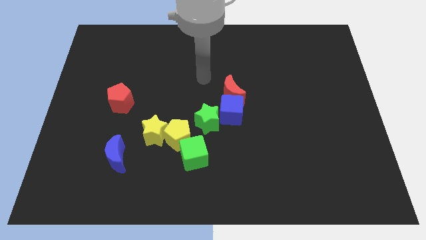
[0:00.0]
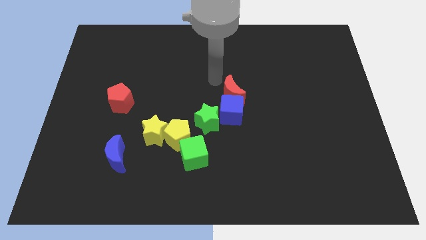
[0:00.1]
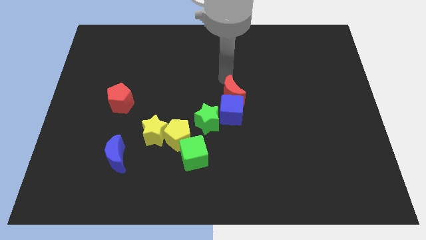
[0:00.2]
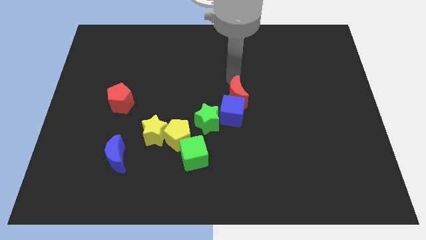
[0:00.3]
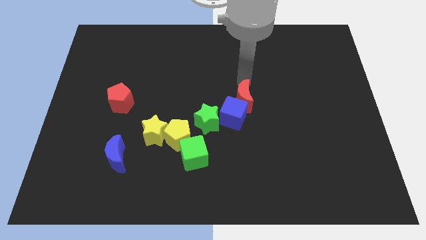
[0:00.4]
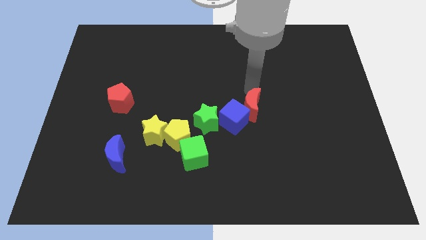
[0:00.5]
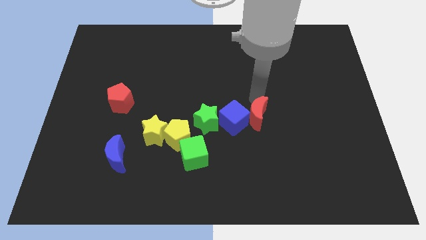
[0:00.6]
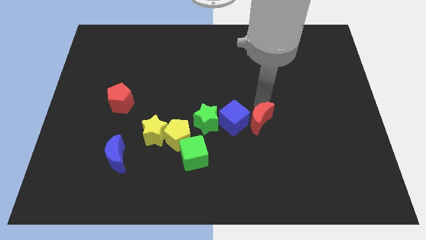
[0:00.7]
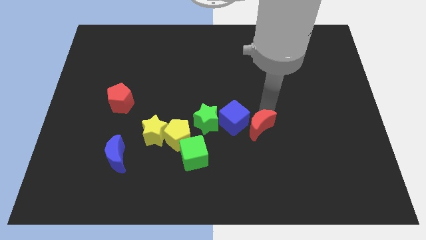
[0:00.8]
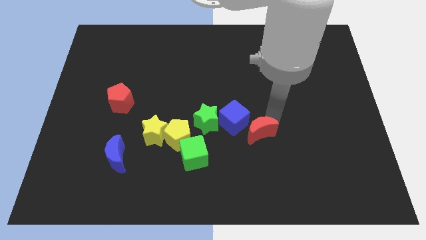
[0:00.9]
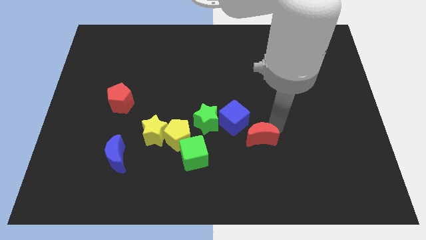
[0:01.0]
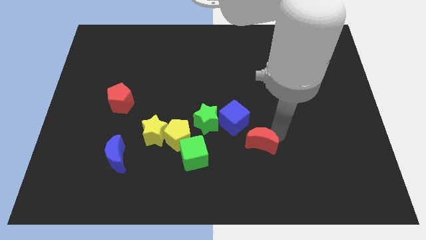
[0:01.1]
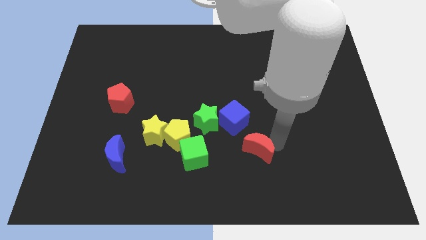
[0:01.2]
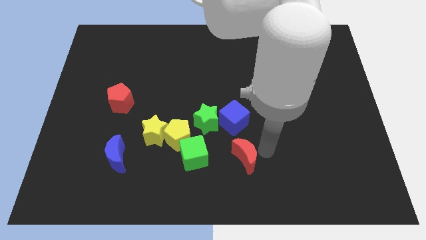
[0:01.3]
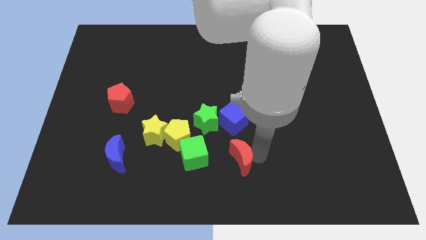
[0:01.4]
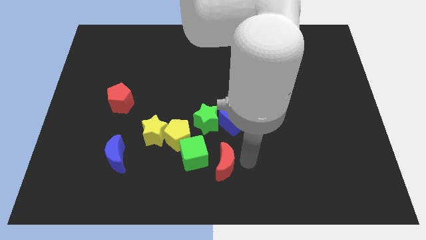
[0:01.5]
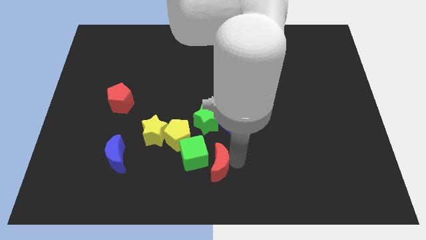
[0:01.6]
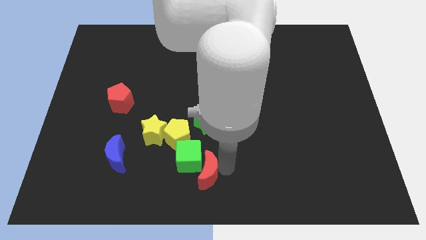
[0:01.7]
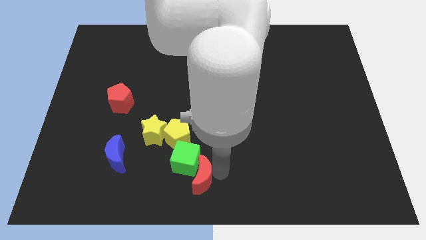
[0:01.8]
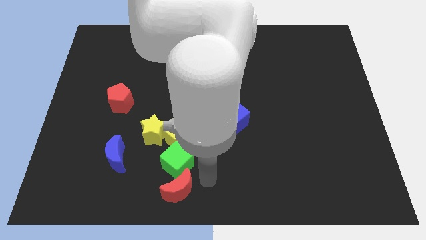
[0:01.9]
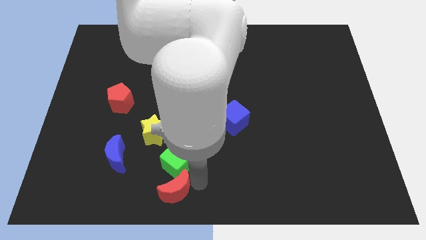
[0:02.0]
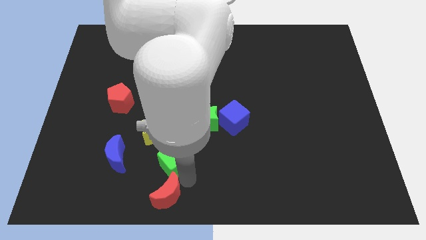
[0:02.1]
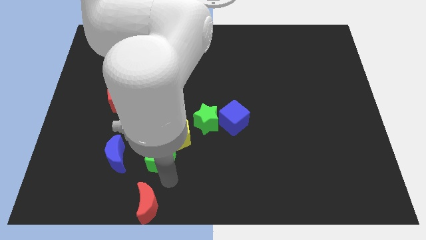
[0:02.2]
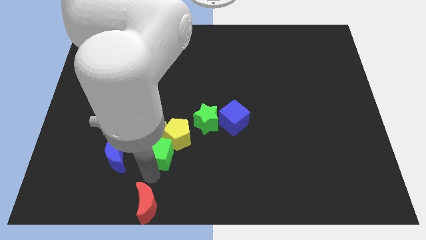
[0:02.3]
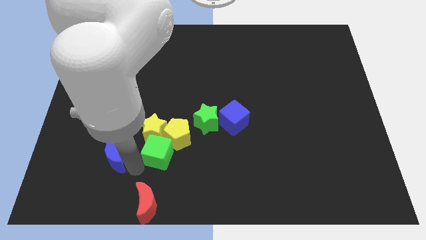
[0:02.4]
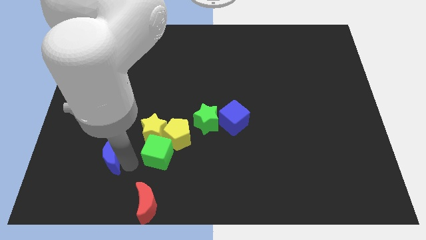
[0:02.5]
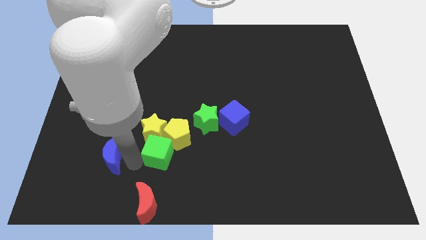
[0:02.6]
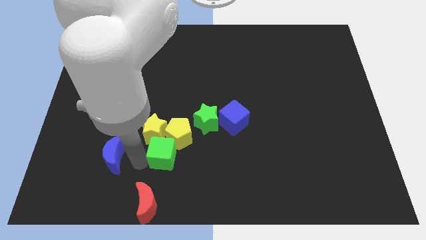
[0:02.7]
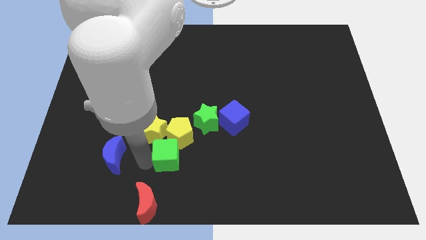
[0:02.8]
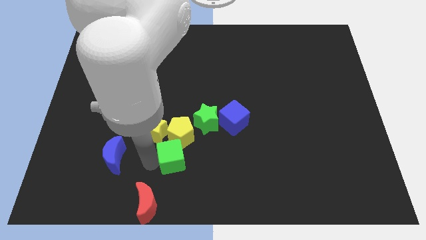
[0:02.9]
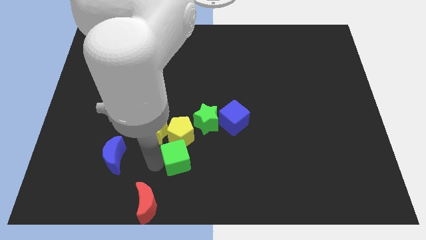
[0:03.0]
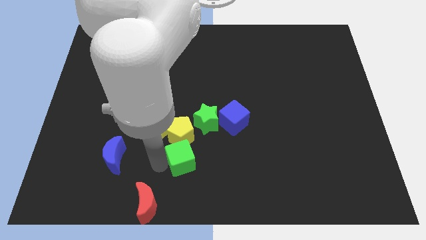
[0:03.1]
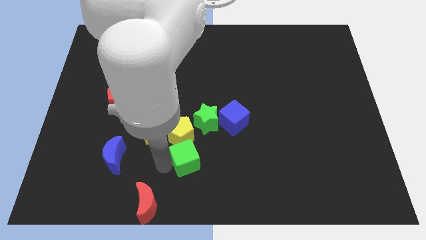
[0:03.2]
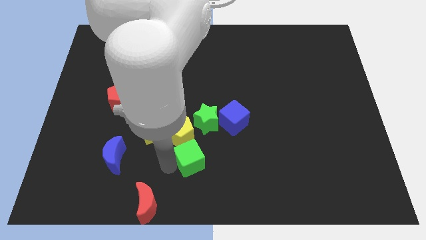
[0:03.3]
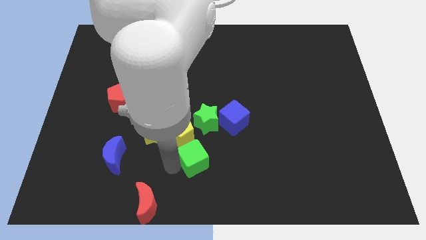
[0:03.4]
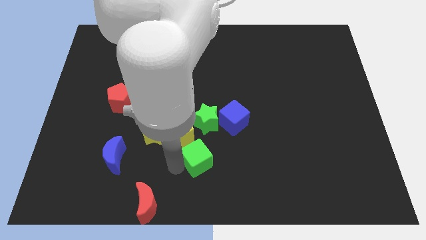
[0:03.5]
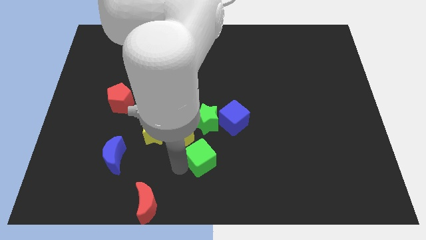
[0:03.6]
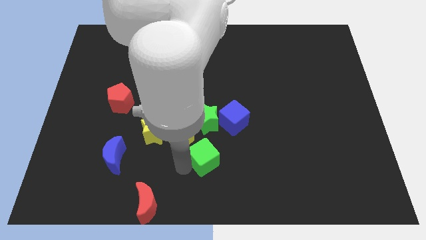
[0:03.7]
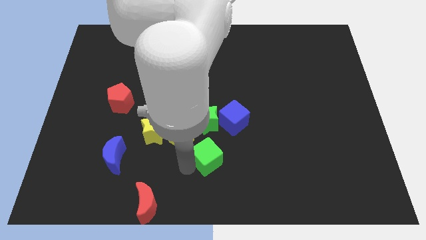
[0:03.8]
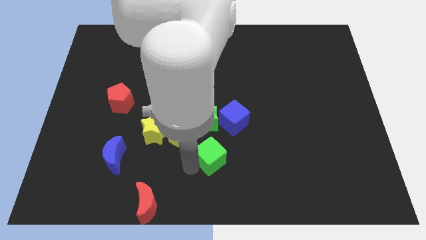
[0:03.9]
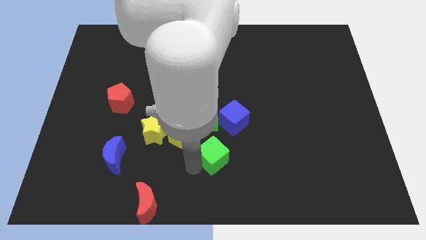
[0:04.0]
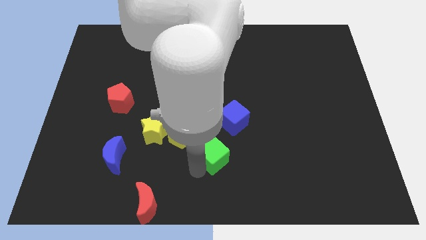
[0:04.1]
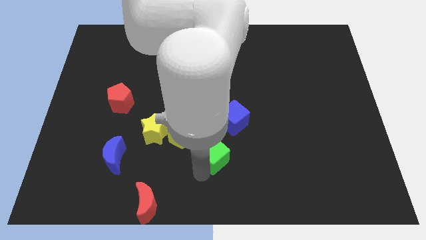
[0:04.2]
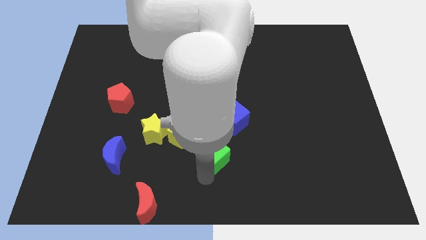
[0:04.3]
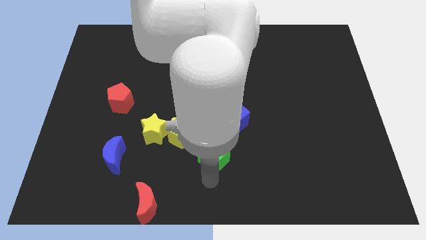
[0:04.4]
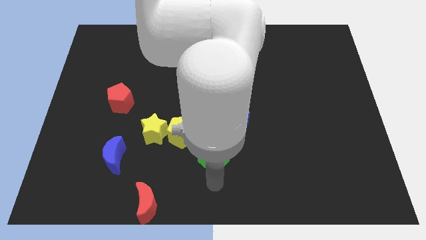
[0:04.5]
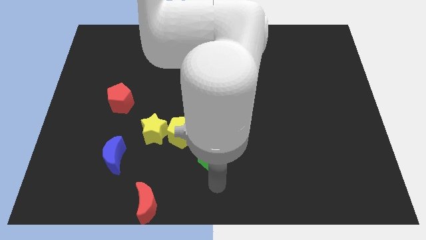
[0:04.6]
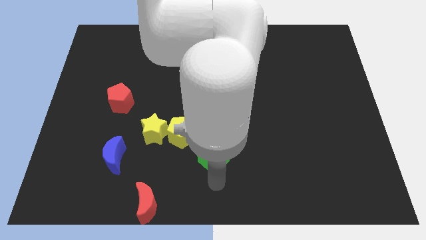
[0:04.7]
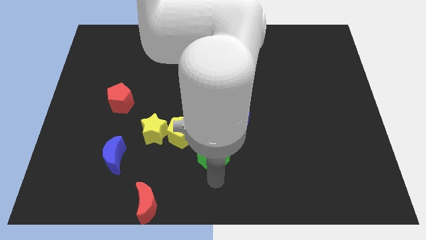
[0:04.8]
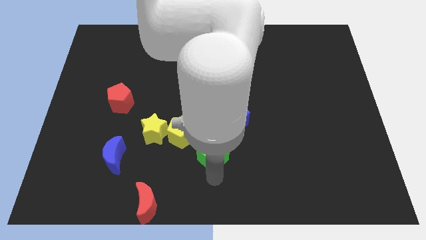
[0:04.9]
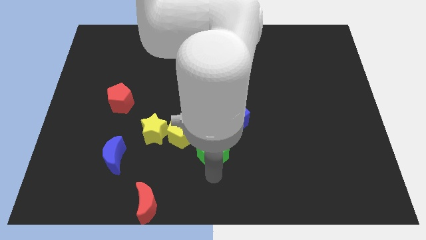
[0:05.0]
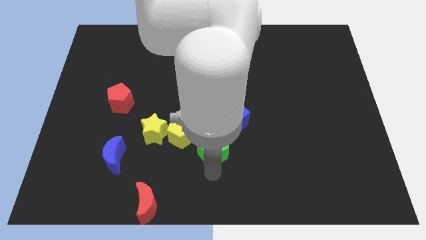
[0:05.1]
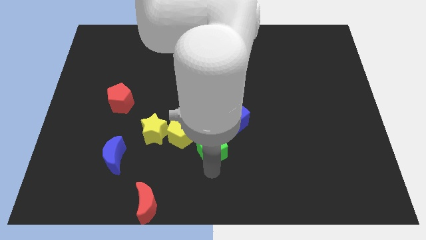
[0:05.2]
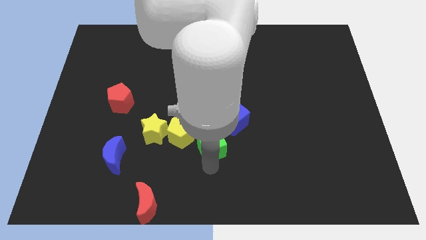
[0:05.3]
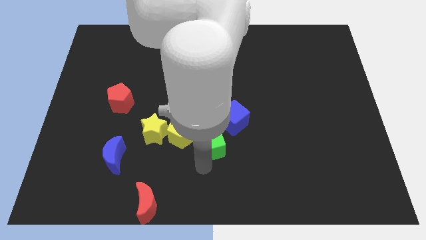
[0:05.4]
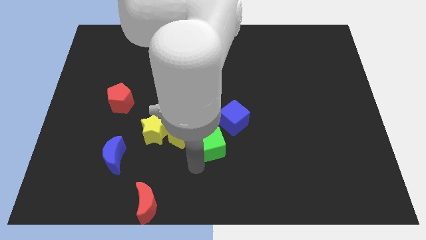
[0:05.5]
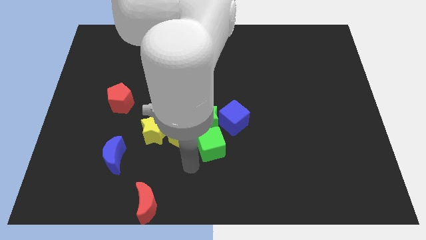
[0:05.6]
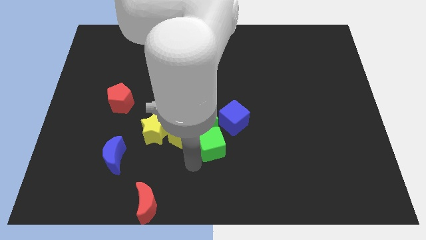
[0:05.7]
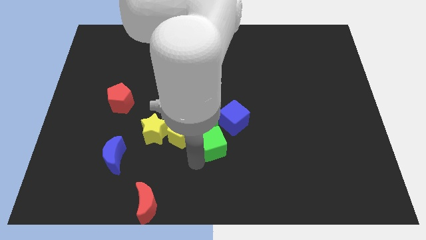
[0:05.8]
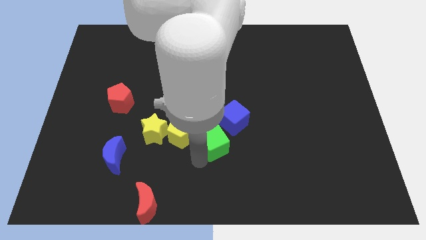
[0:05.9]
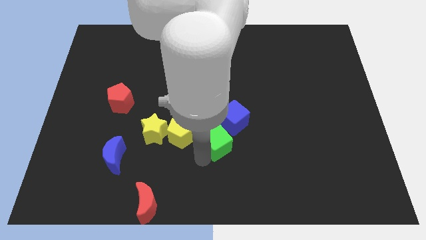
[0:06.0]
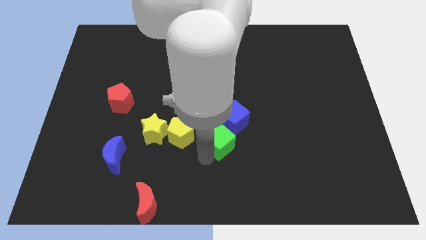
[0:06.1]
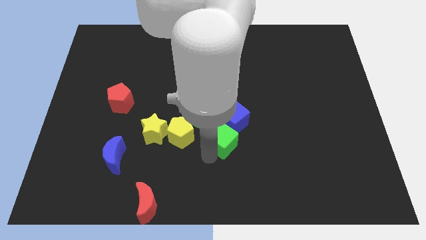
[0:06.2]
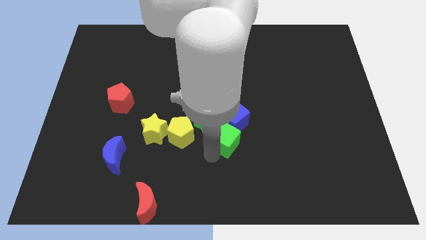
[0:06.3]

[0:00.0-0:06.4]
move the green cube to the blue cube
